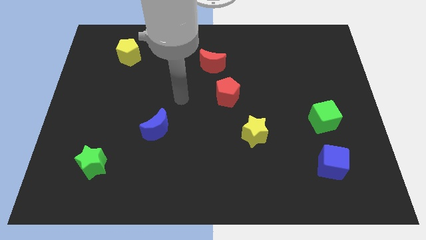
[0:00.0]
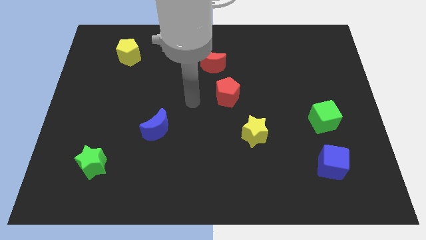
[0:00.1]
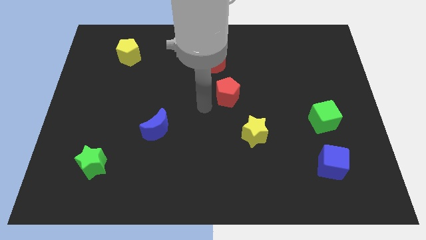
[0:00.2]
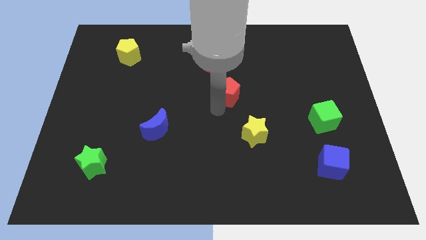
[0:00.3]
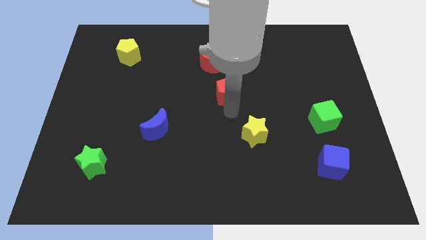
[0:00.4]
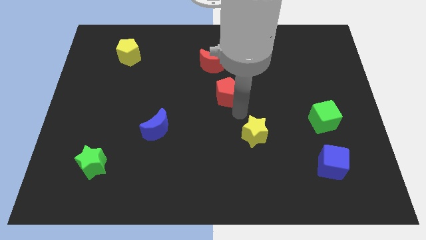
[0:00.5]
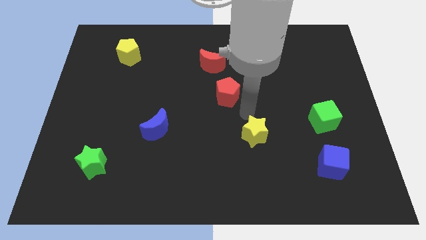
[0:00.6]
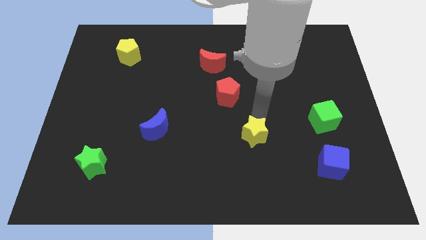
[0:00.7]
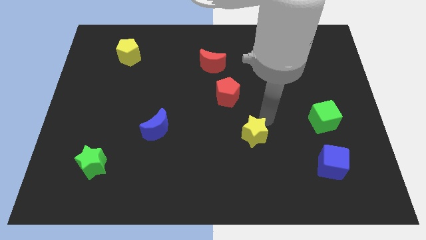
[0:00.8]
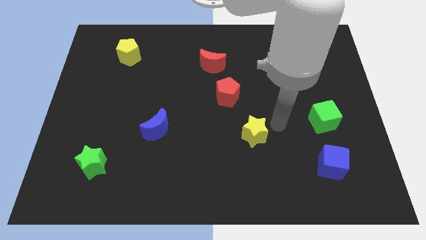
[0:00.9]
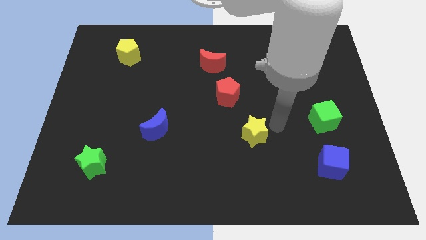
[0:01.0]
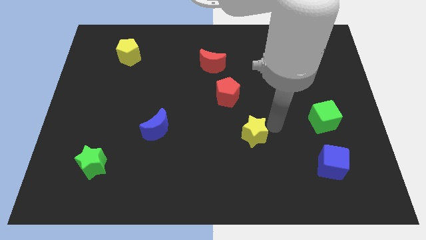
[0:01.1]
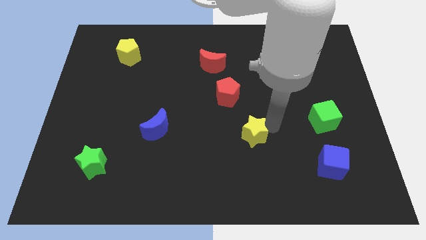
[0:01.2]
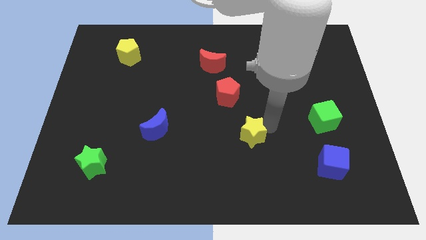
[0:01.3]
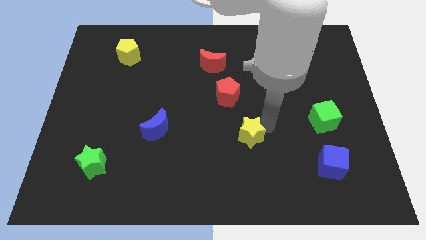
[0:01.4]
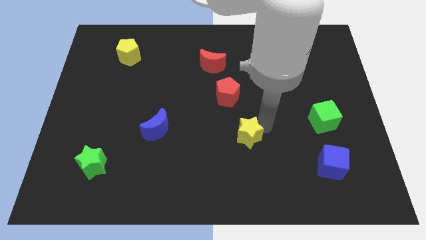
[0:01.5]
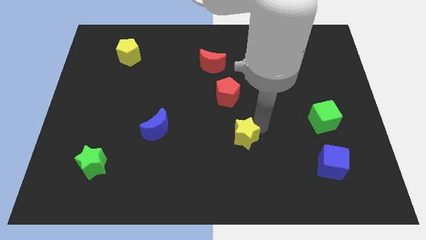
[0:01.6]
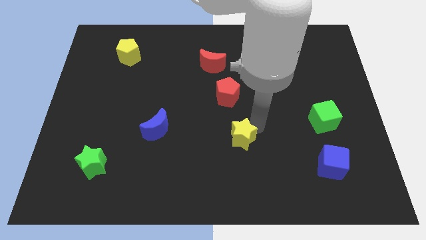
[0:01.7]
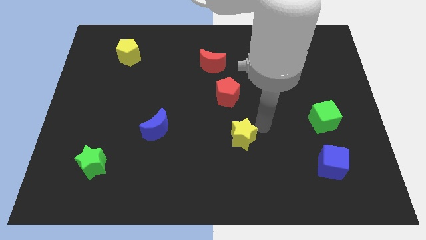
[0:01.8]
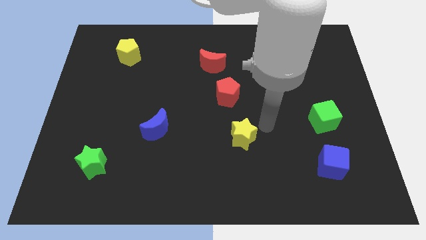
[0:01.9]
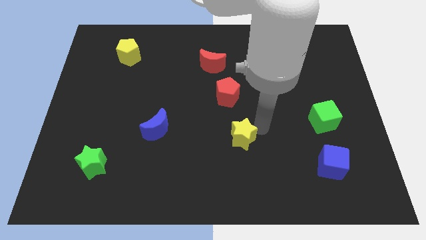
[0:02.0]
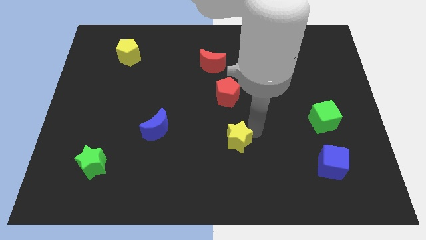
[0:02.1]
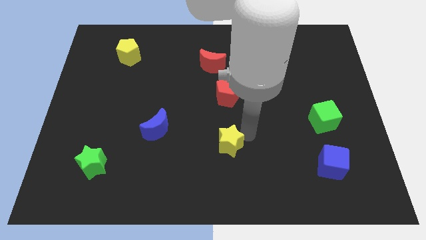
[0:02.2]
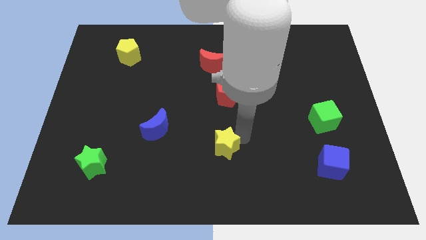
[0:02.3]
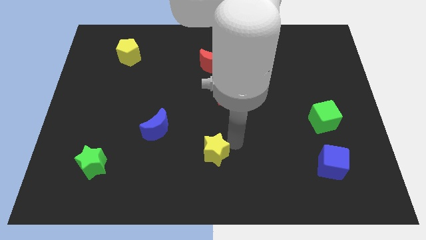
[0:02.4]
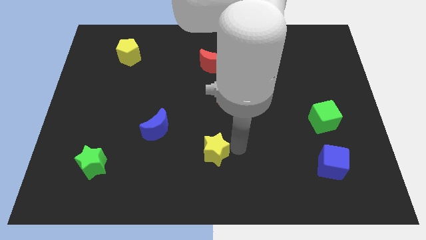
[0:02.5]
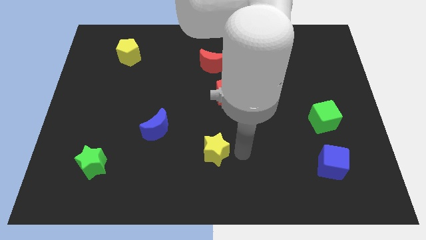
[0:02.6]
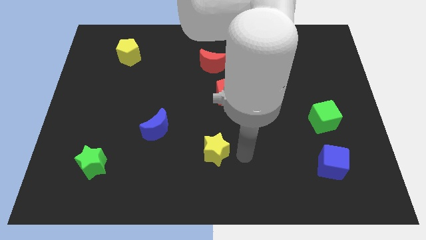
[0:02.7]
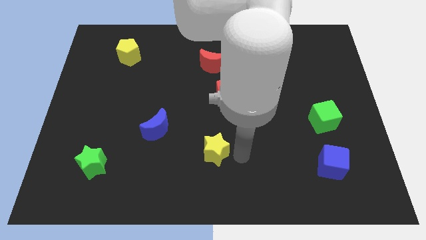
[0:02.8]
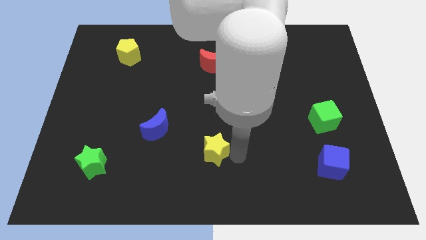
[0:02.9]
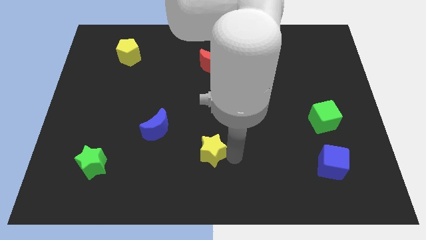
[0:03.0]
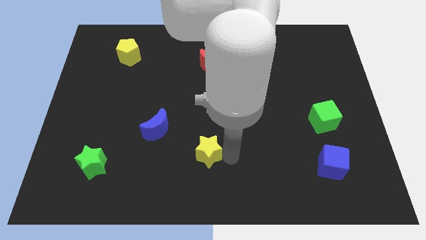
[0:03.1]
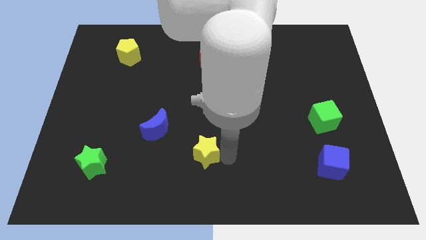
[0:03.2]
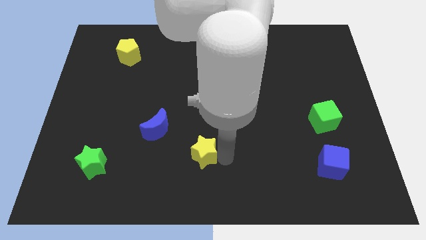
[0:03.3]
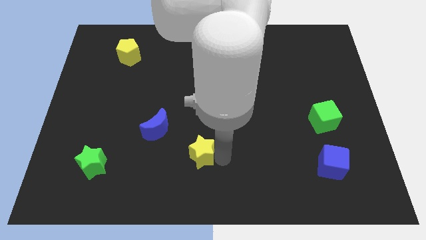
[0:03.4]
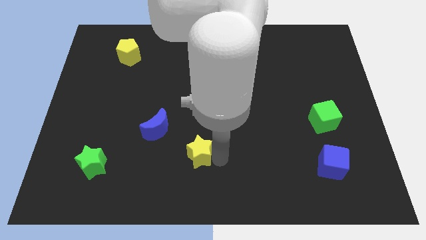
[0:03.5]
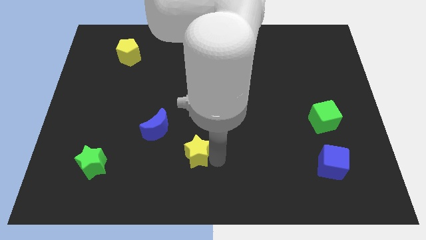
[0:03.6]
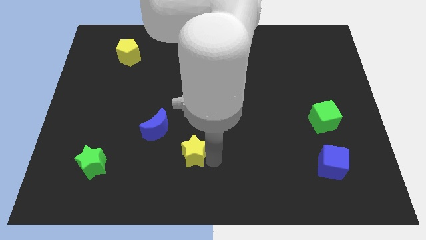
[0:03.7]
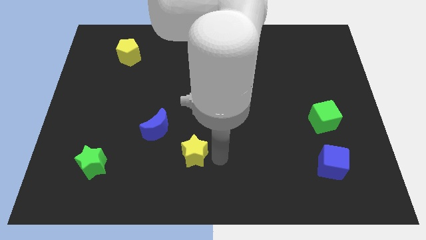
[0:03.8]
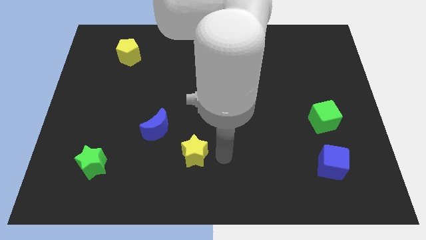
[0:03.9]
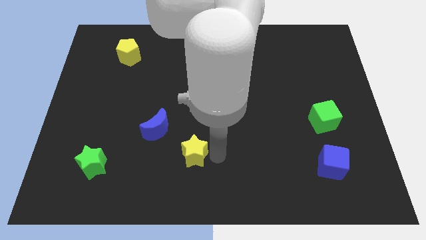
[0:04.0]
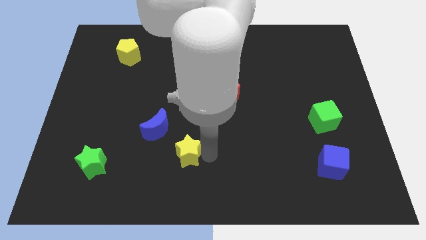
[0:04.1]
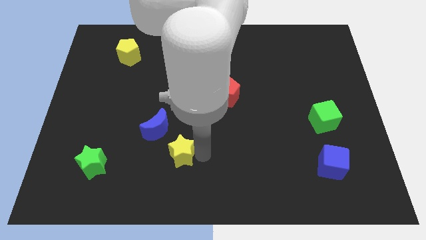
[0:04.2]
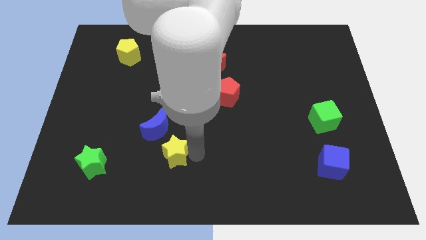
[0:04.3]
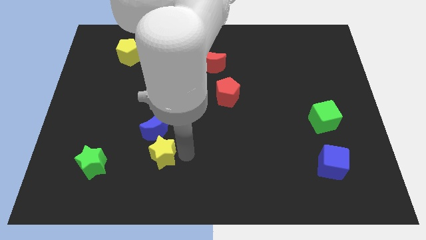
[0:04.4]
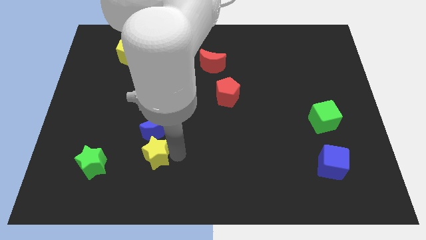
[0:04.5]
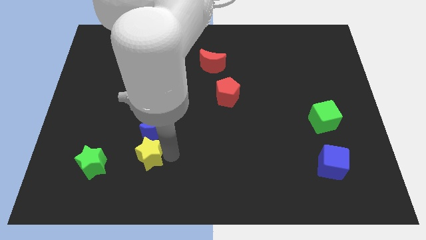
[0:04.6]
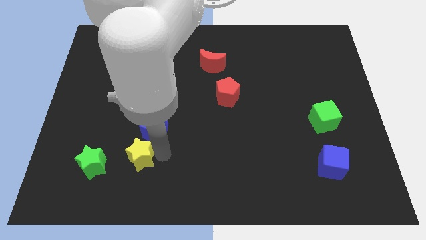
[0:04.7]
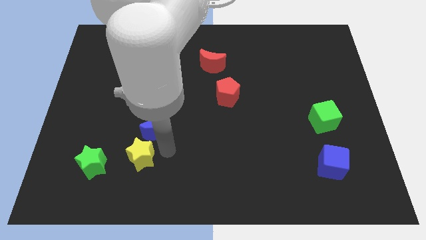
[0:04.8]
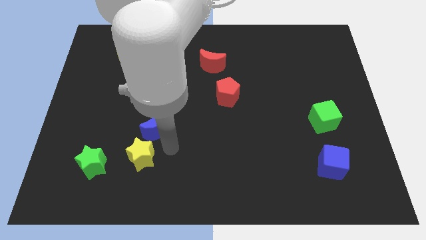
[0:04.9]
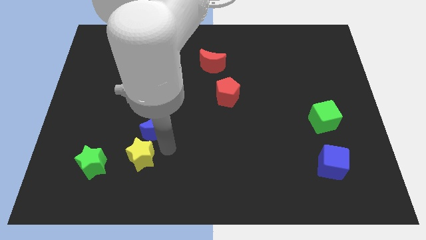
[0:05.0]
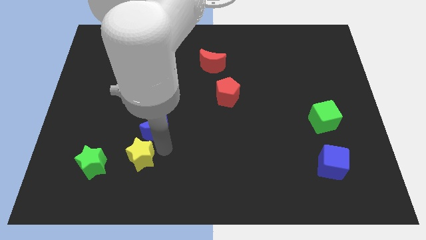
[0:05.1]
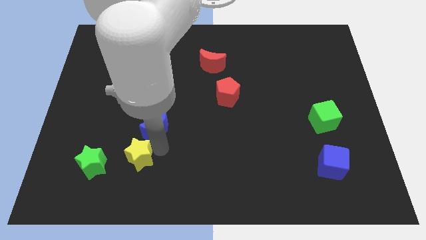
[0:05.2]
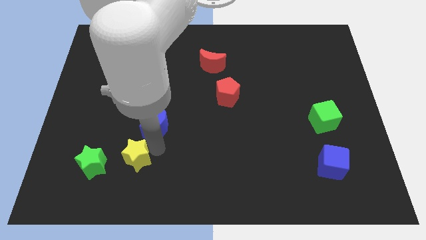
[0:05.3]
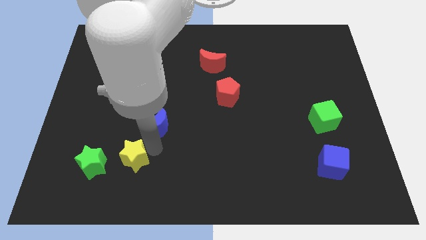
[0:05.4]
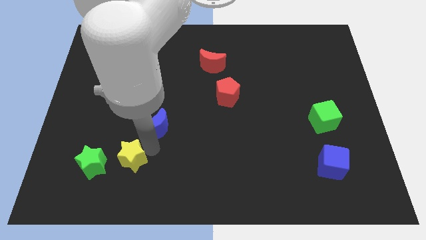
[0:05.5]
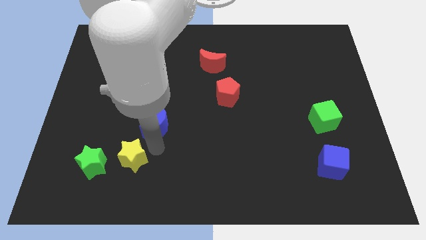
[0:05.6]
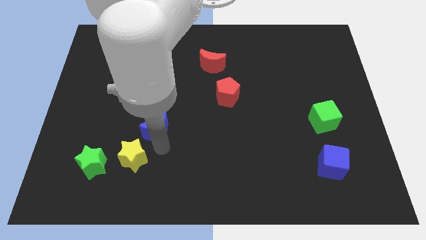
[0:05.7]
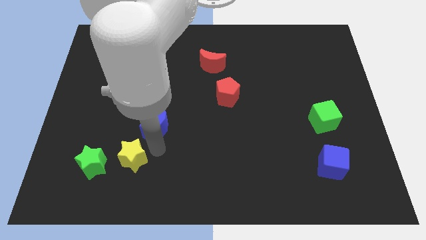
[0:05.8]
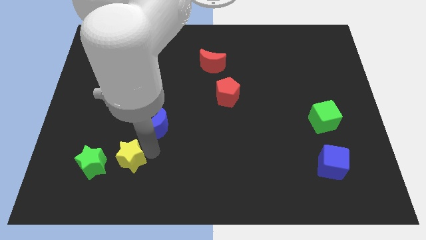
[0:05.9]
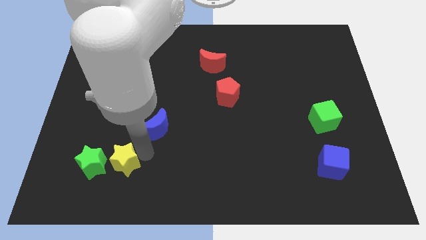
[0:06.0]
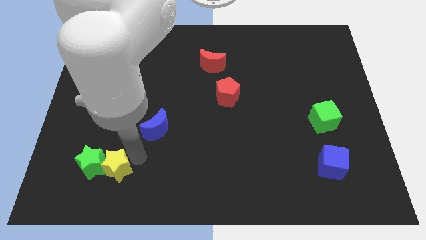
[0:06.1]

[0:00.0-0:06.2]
move the yellow star close to the green star

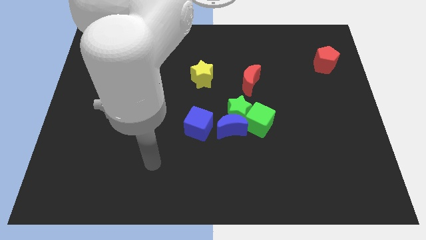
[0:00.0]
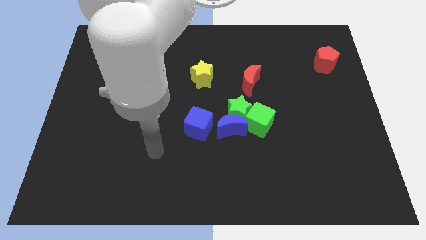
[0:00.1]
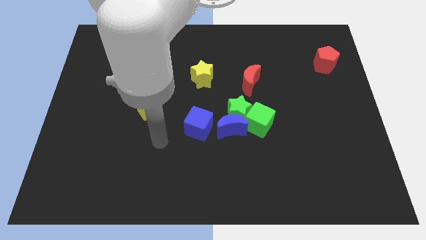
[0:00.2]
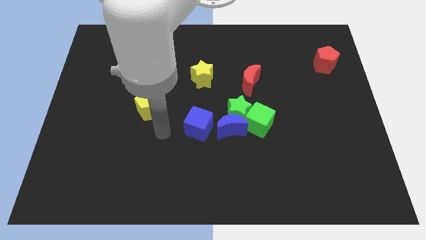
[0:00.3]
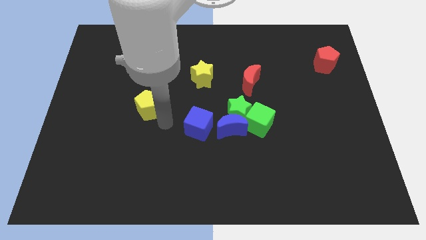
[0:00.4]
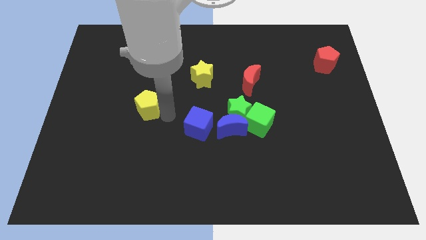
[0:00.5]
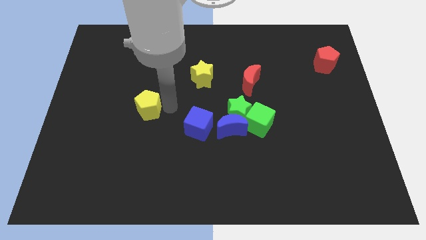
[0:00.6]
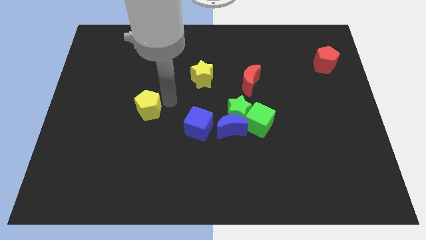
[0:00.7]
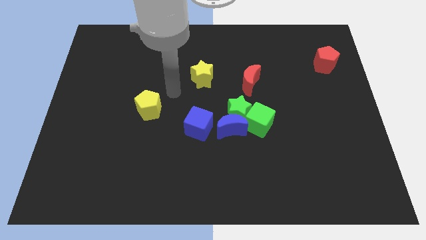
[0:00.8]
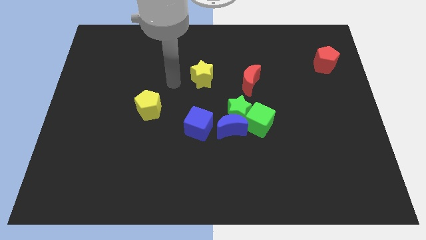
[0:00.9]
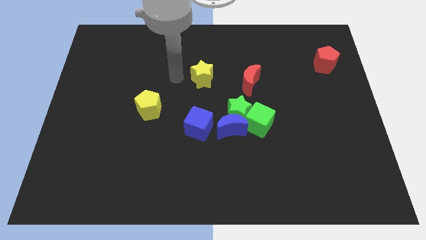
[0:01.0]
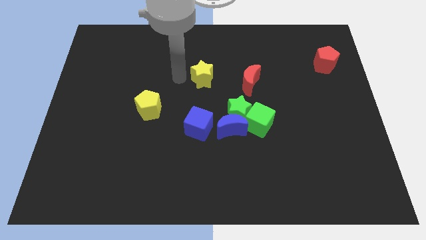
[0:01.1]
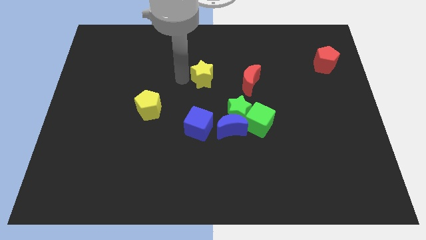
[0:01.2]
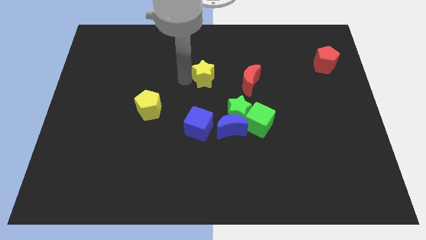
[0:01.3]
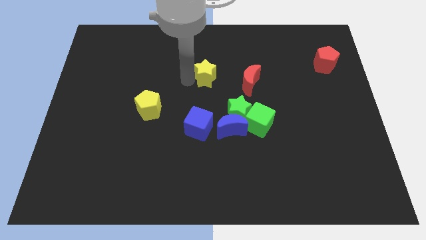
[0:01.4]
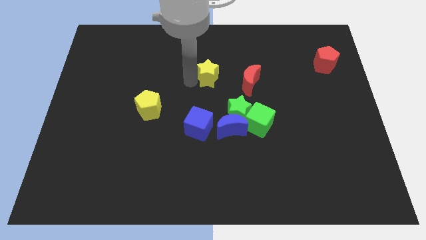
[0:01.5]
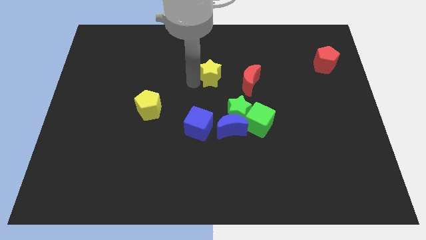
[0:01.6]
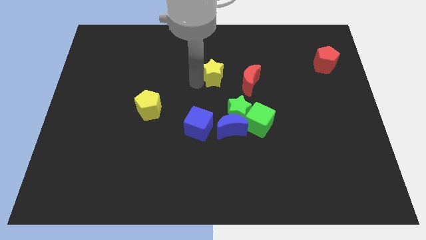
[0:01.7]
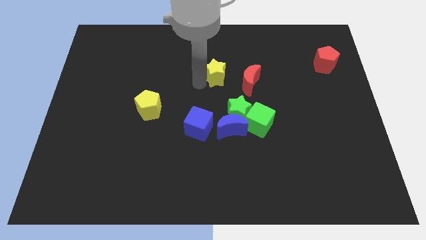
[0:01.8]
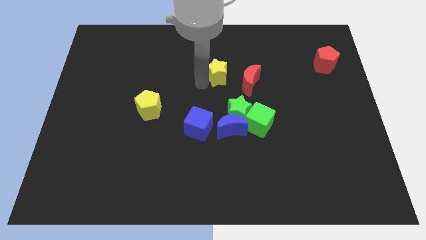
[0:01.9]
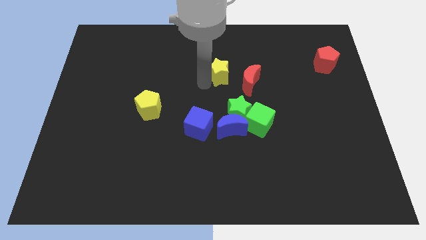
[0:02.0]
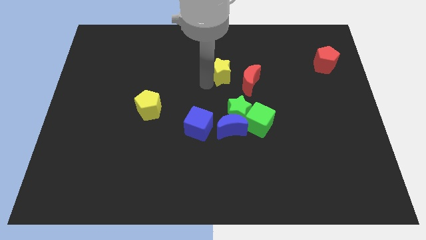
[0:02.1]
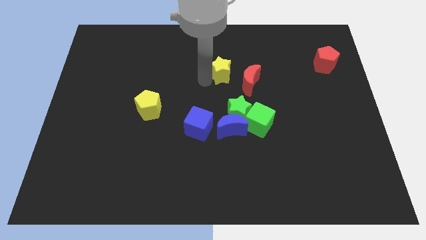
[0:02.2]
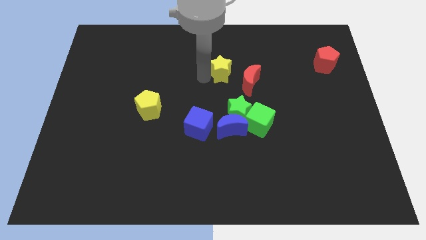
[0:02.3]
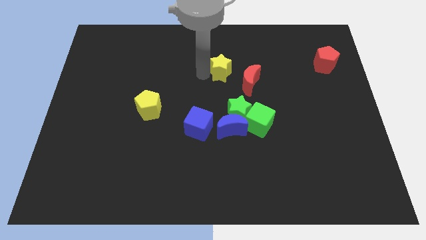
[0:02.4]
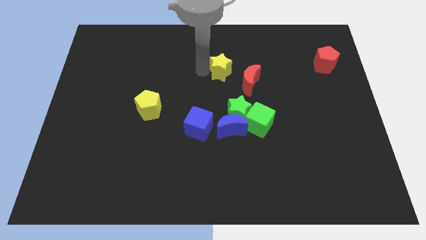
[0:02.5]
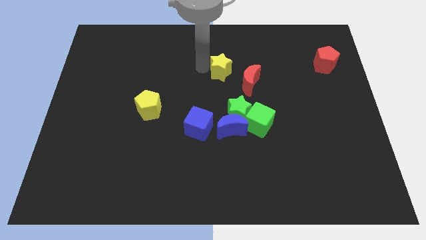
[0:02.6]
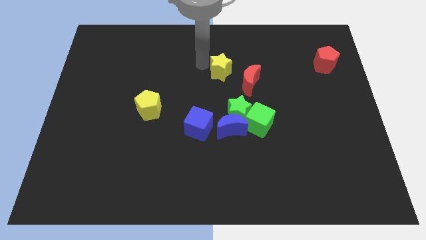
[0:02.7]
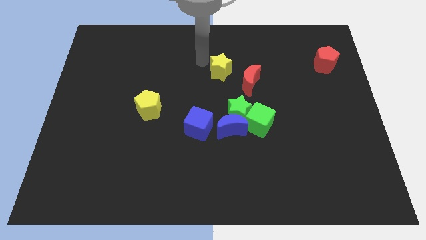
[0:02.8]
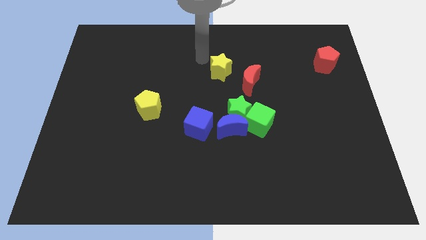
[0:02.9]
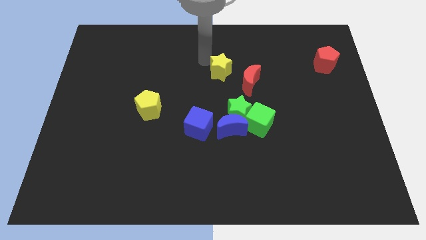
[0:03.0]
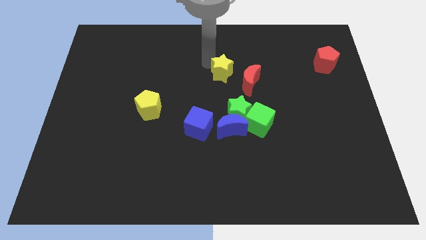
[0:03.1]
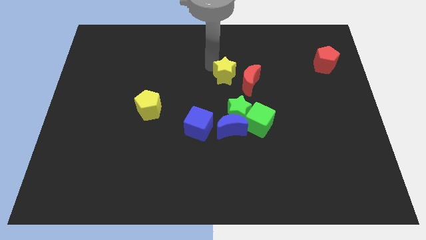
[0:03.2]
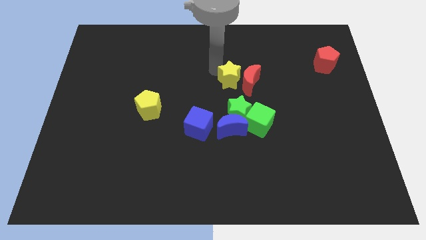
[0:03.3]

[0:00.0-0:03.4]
push the yellow star to the red moon
